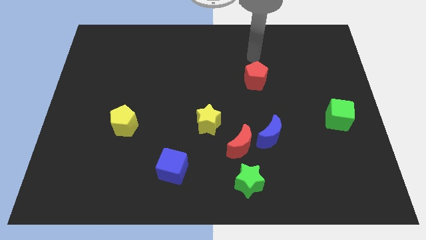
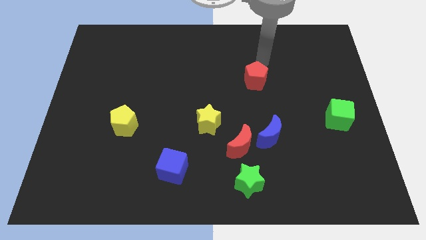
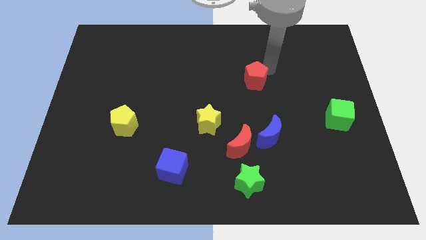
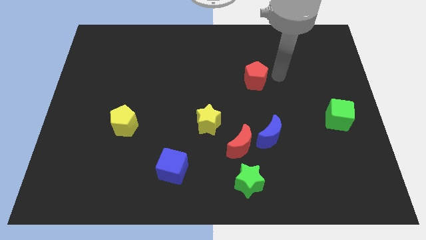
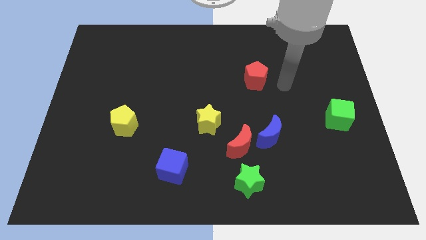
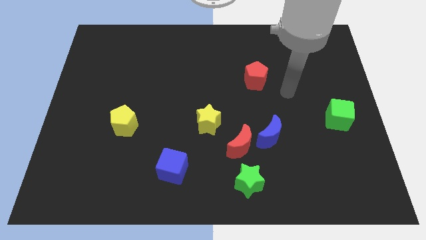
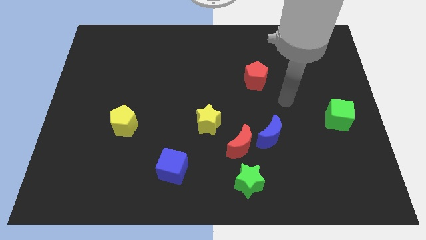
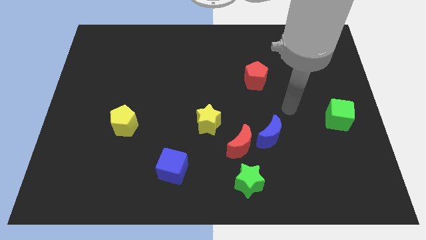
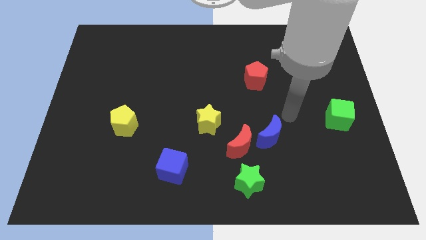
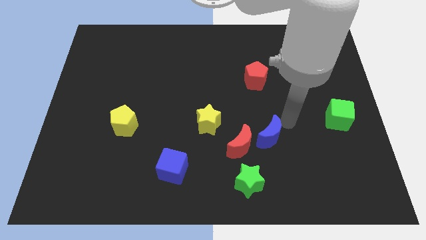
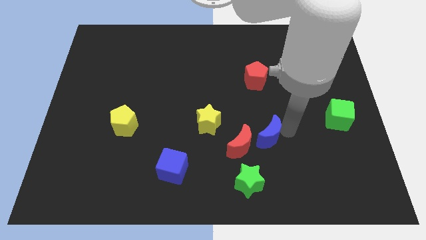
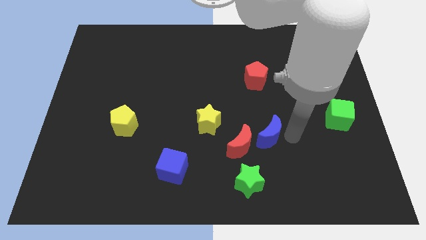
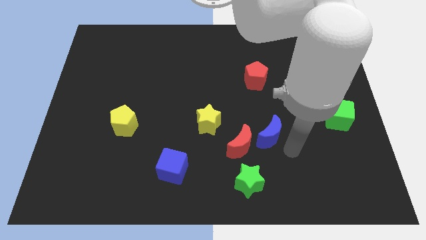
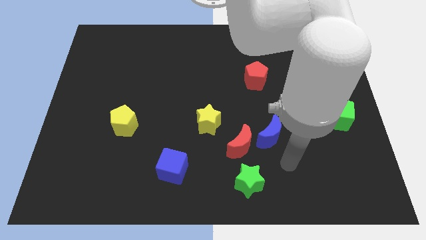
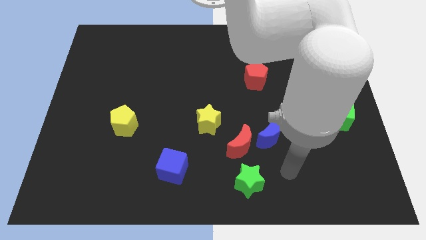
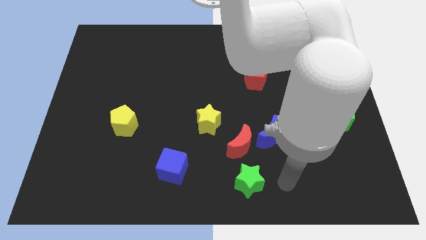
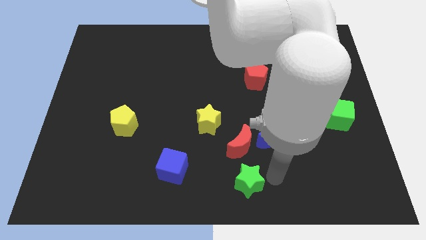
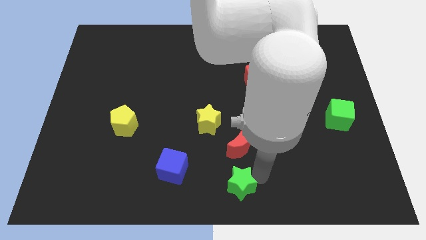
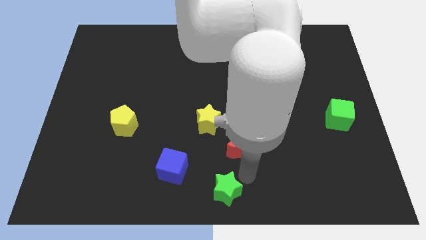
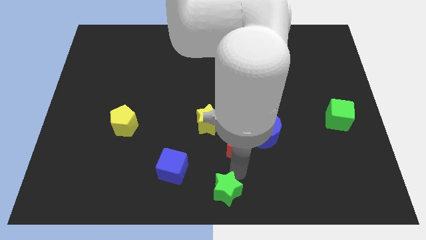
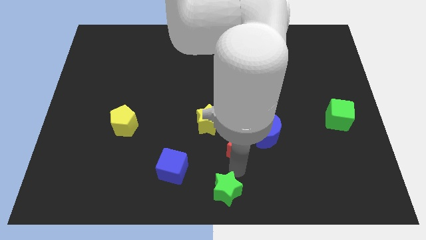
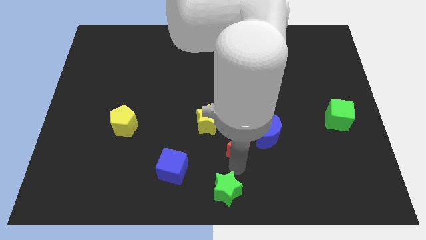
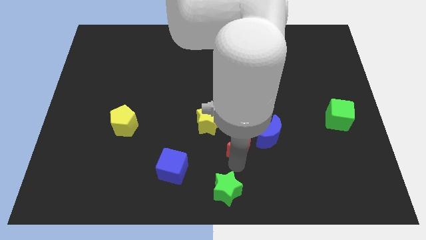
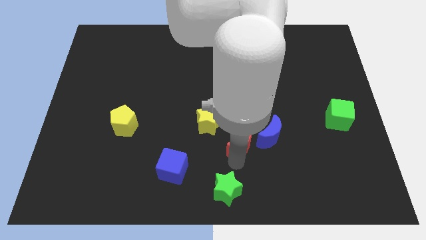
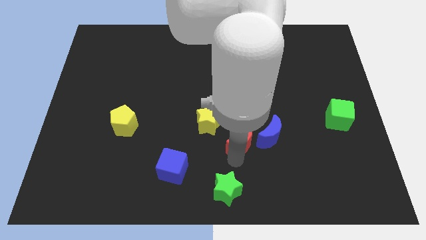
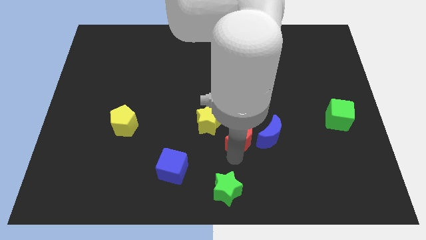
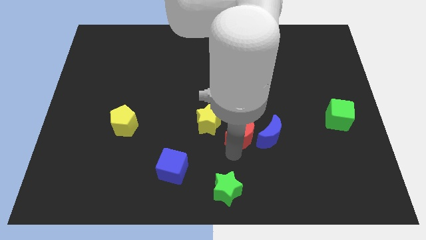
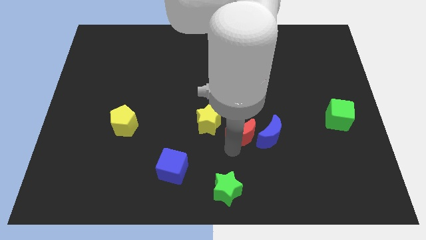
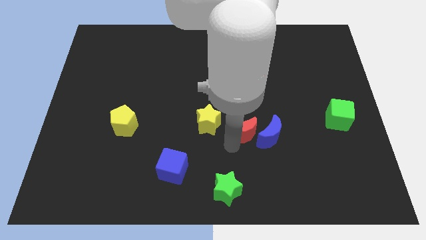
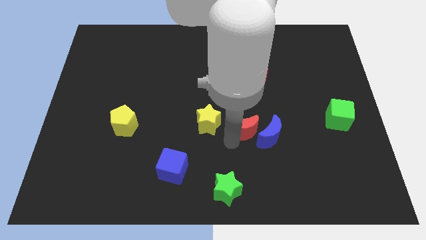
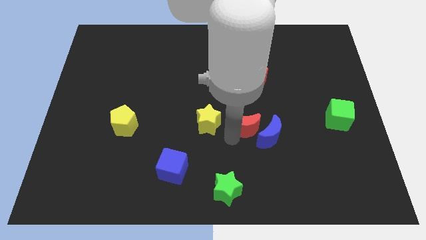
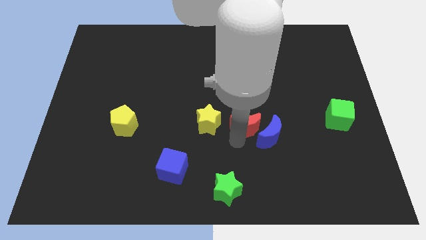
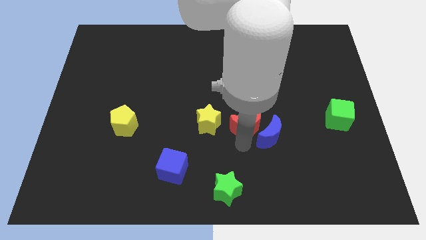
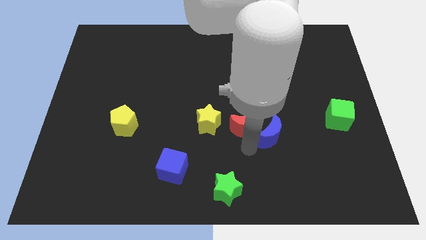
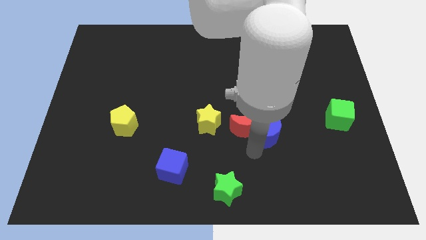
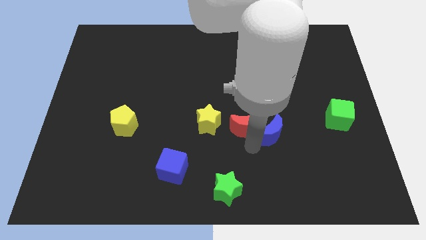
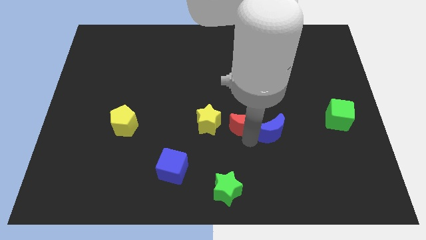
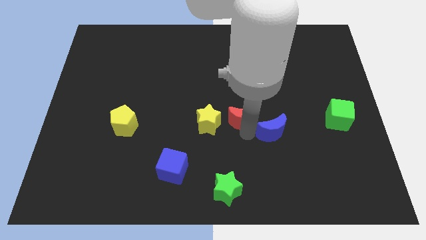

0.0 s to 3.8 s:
push the red moon upwards a little

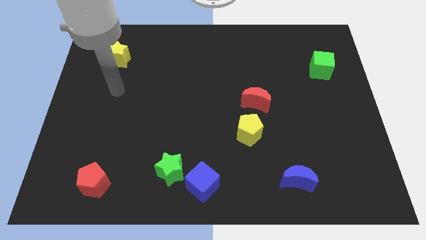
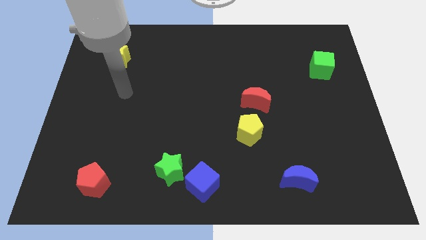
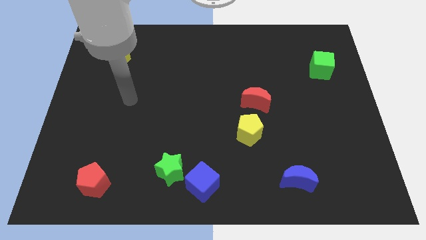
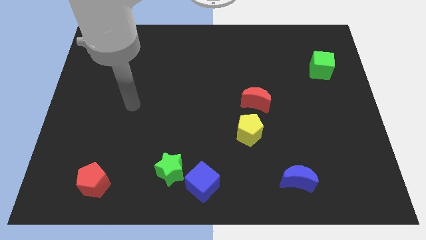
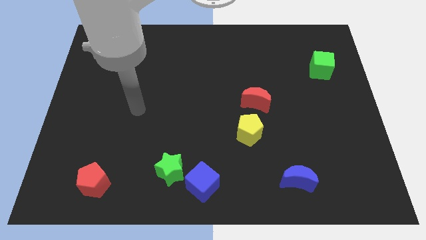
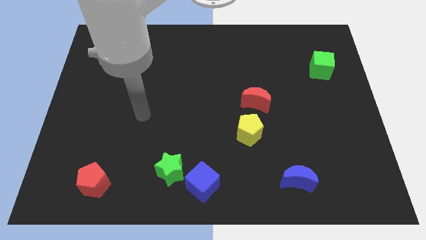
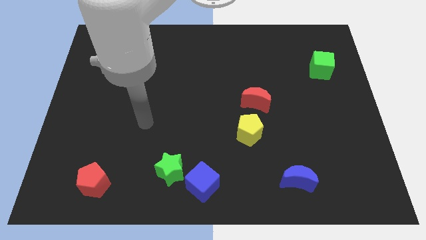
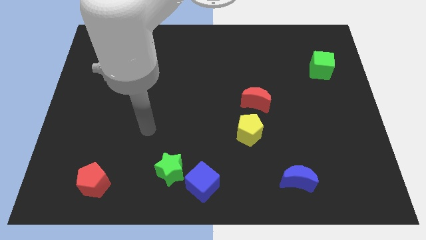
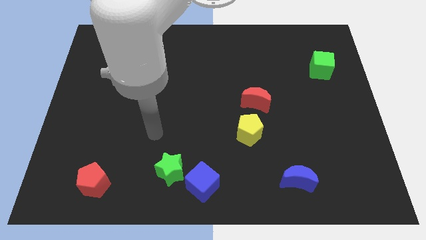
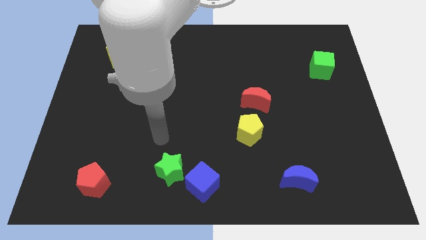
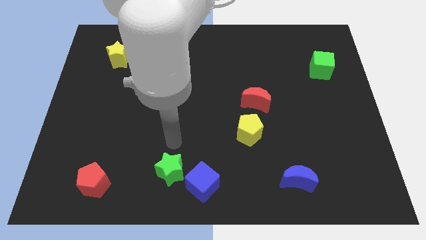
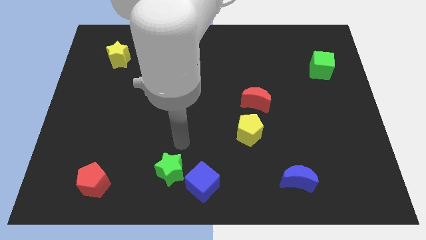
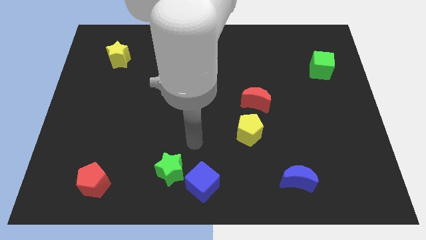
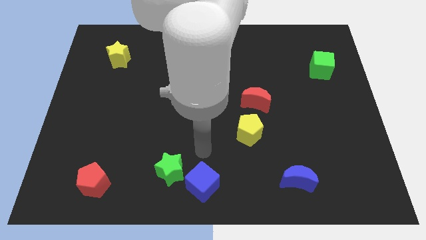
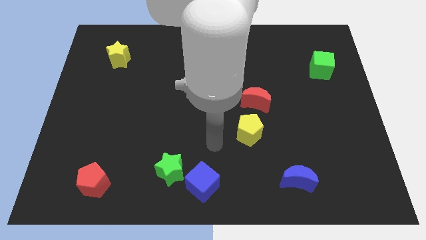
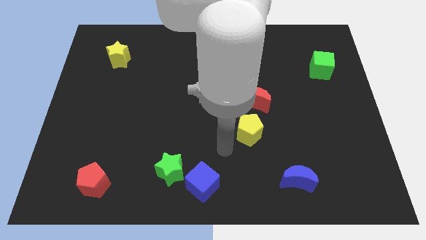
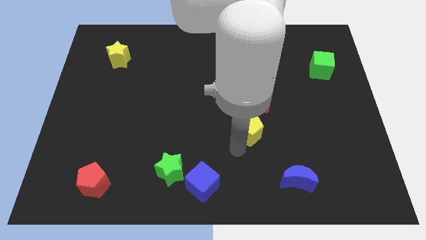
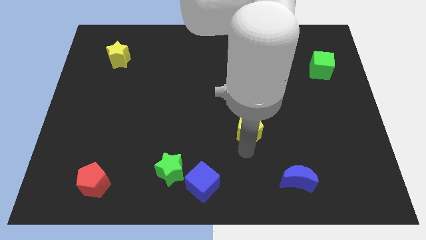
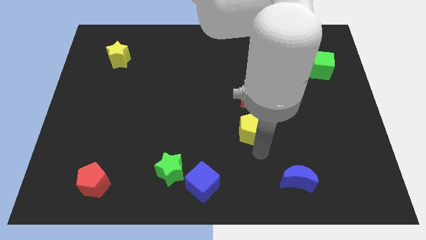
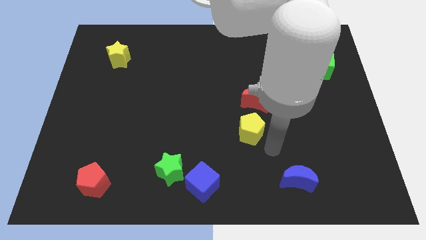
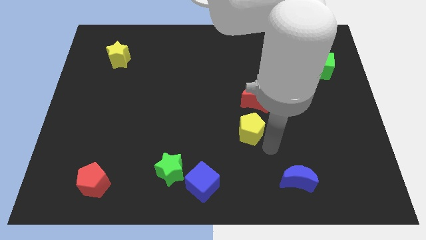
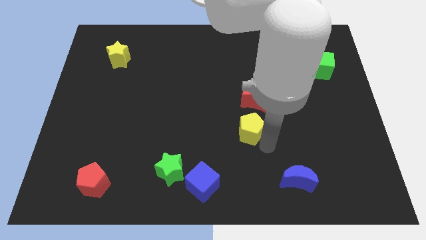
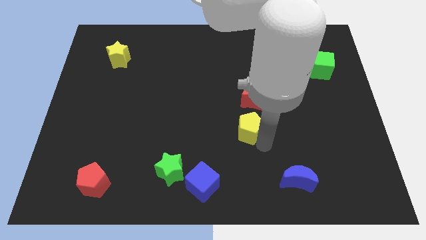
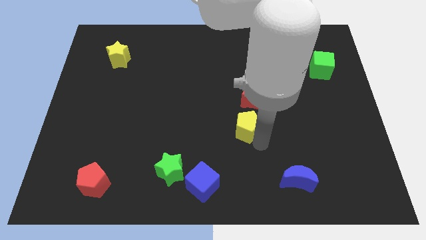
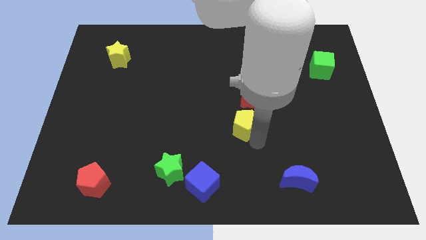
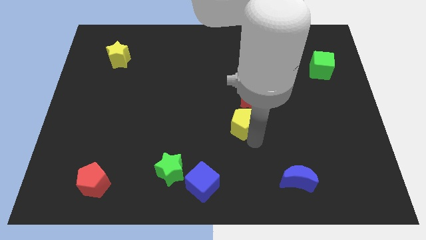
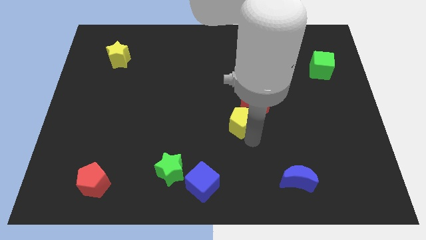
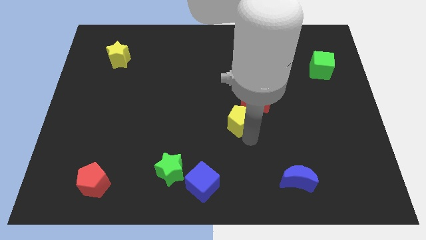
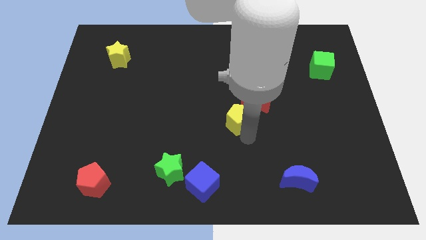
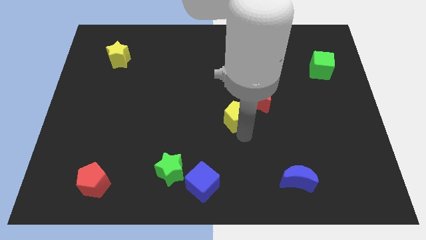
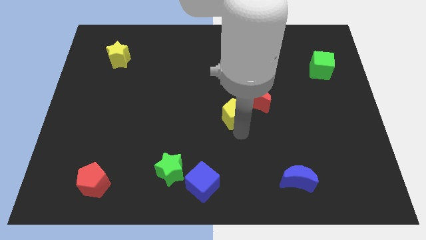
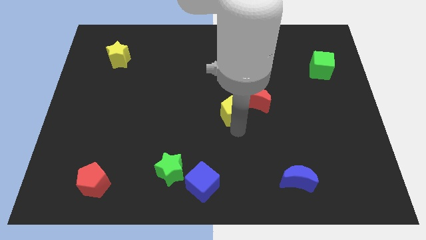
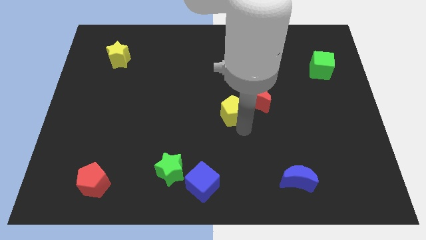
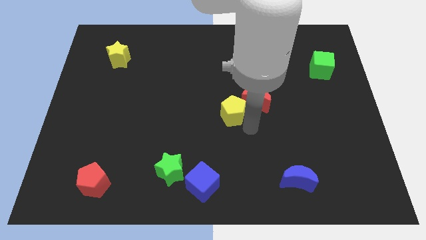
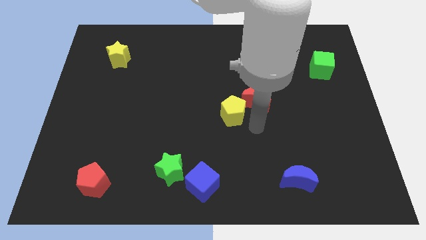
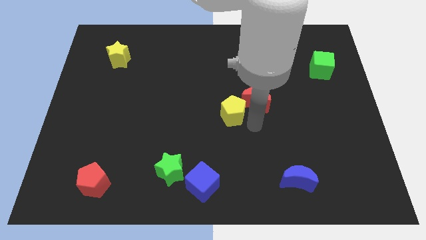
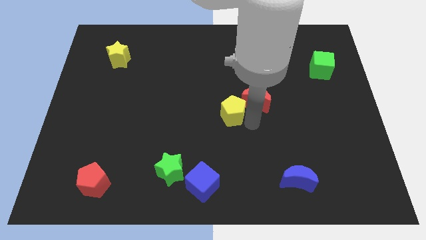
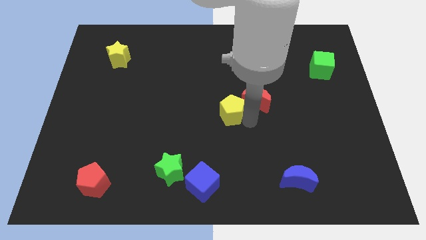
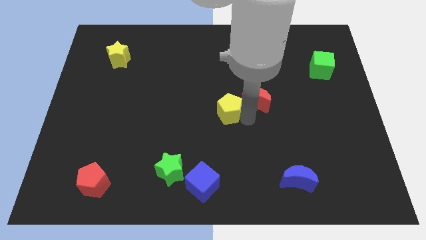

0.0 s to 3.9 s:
slide the yellow pentagon a bit diagonally up and to the left

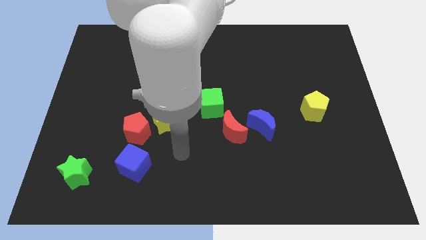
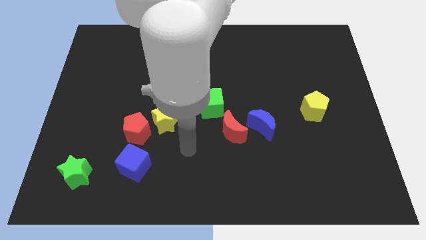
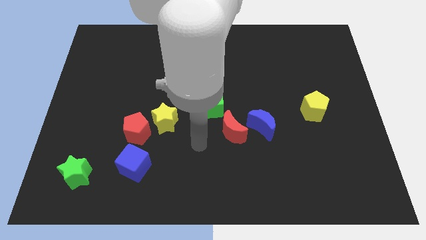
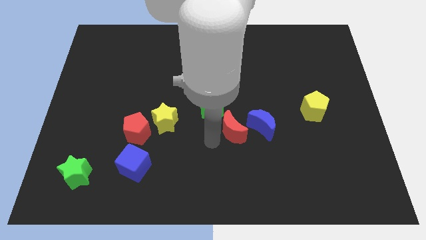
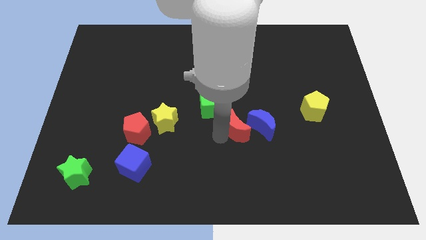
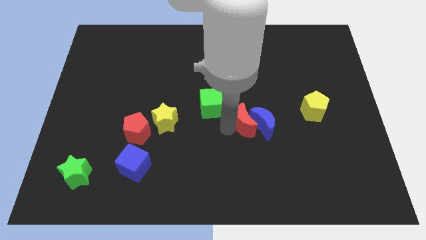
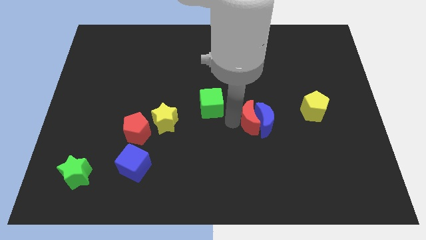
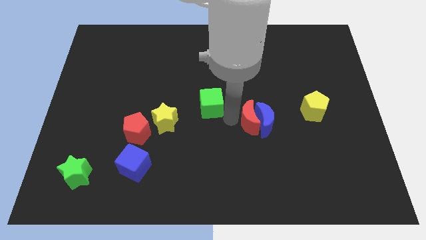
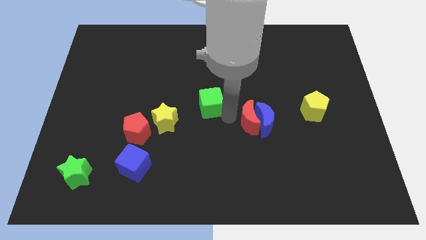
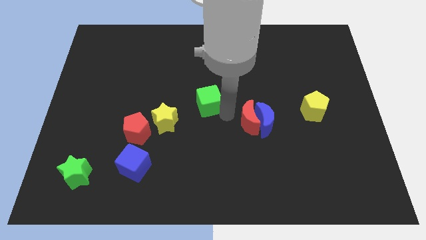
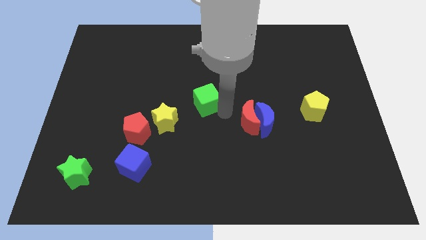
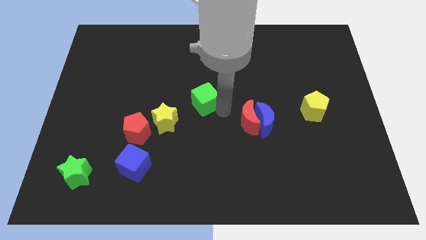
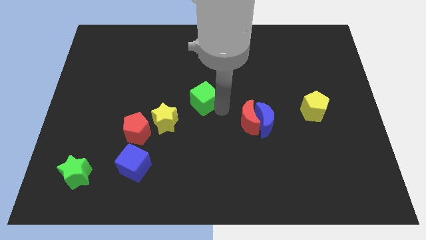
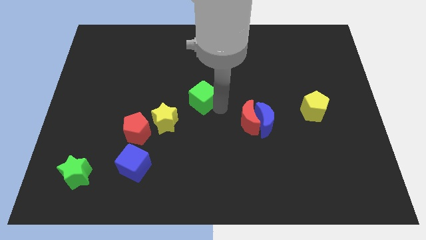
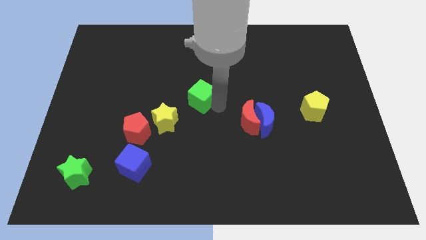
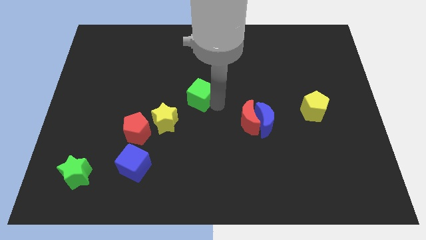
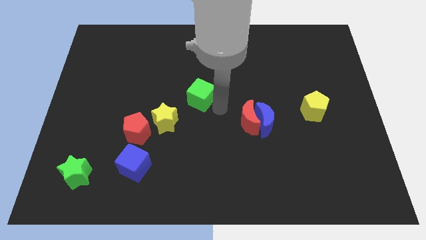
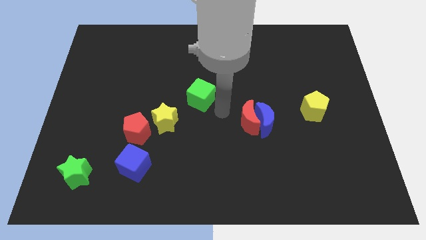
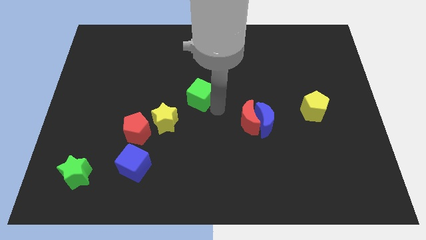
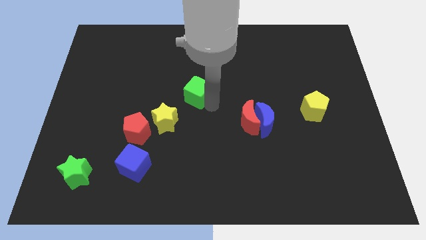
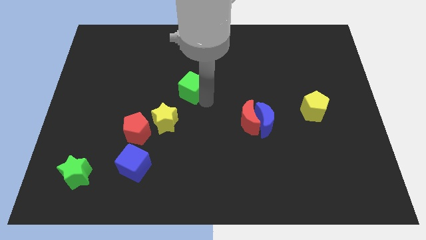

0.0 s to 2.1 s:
slightly slide the green cube upwards and left
